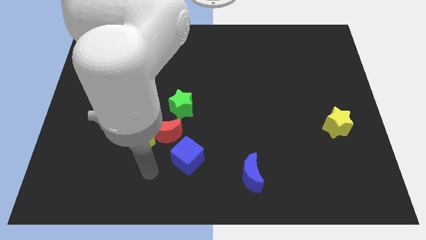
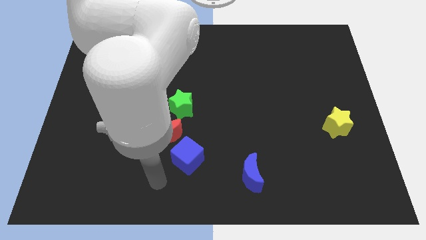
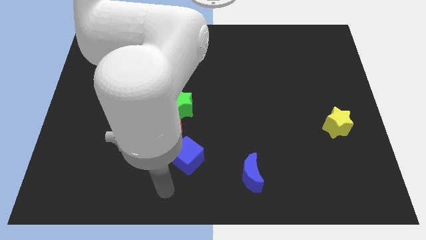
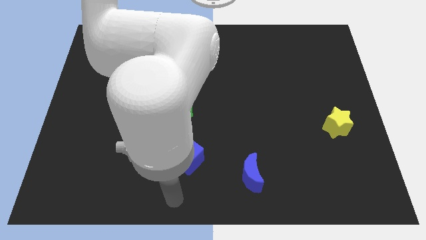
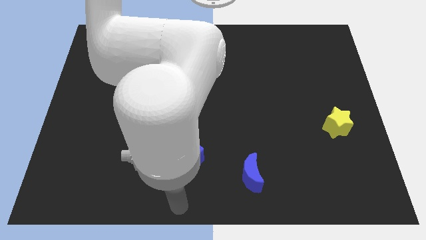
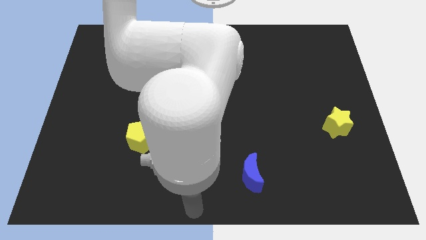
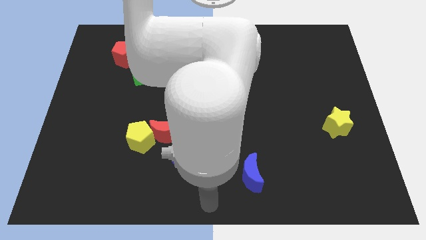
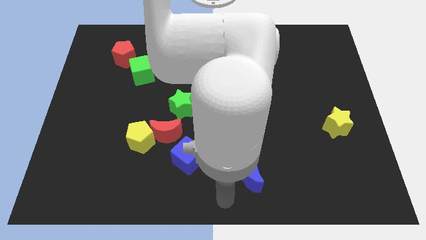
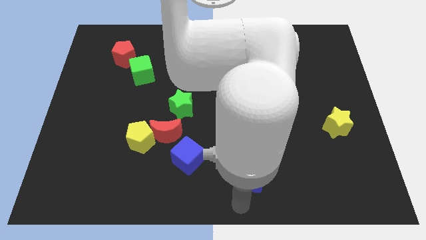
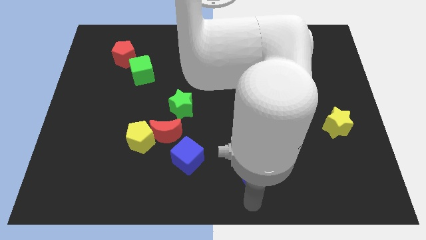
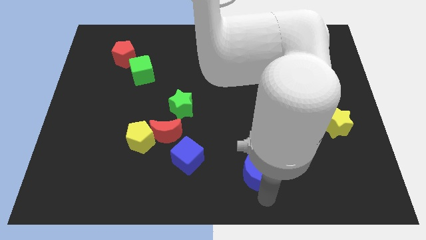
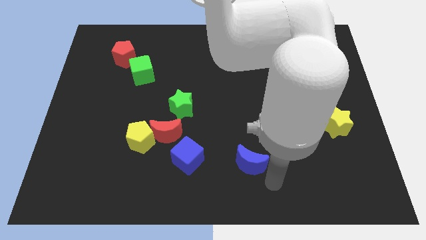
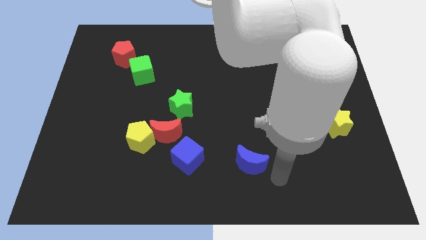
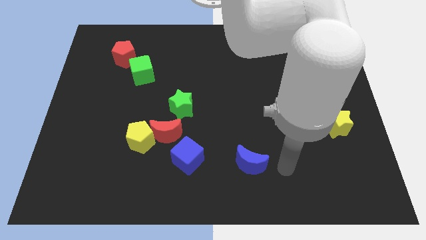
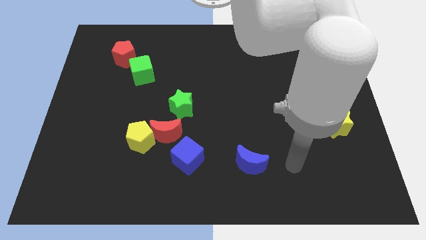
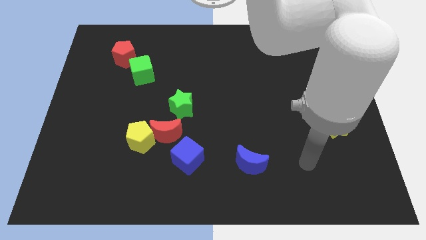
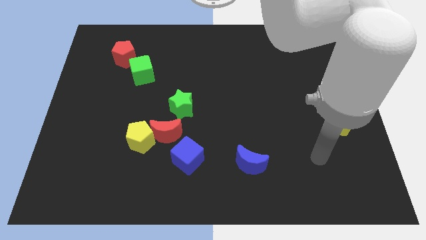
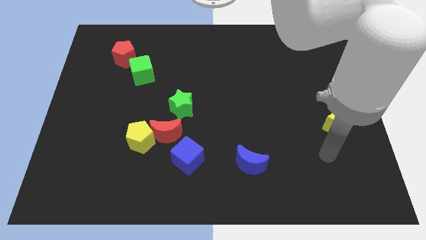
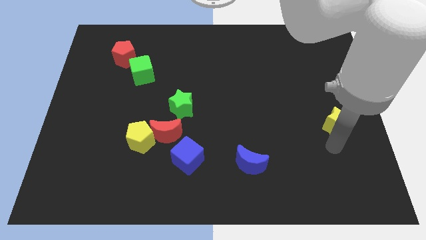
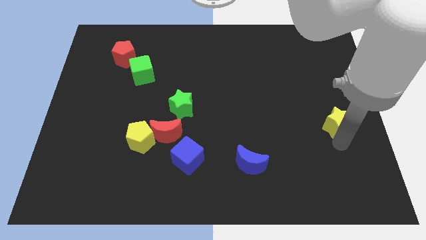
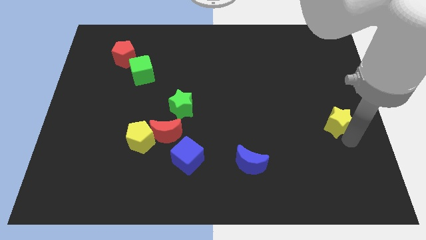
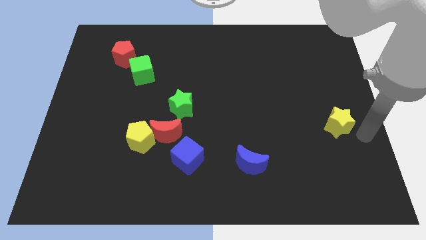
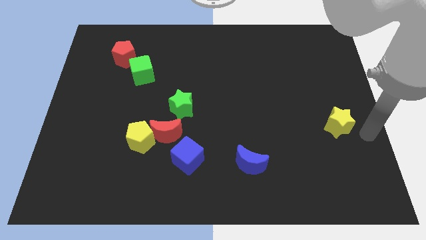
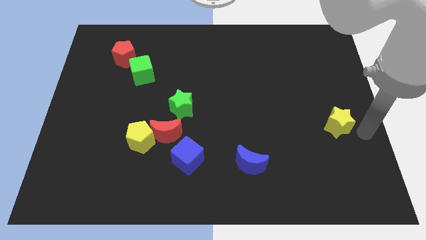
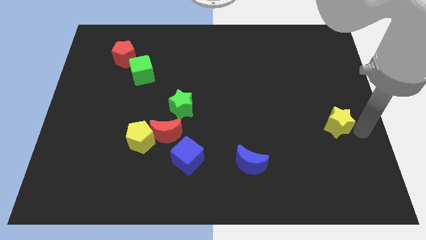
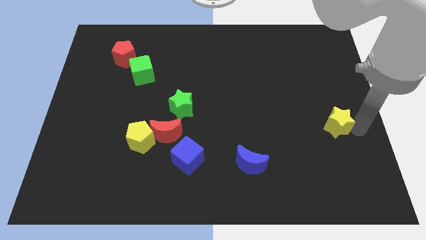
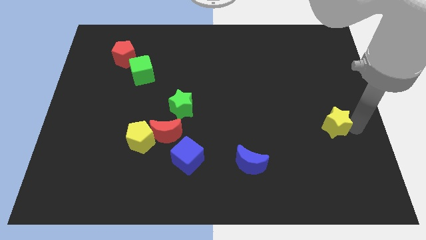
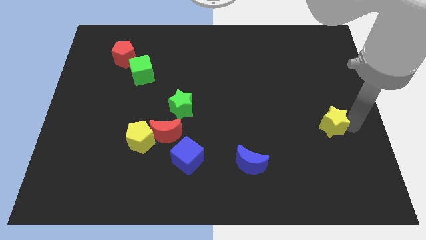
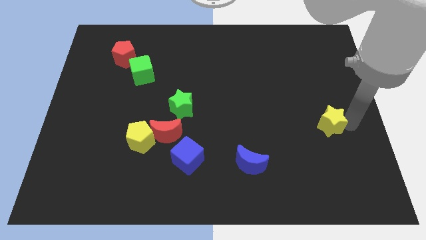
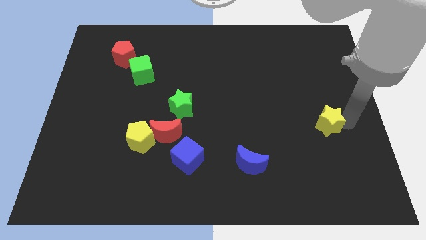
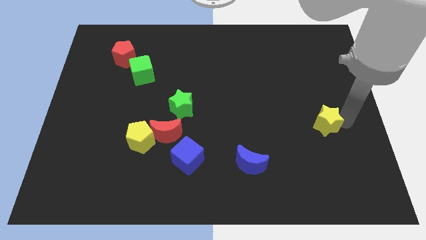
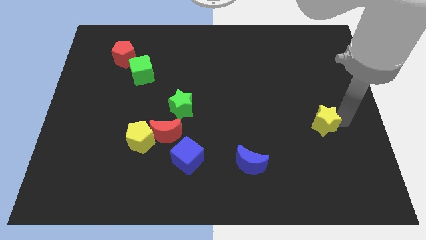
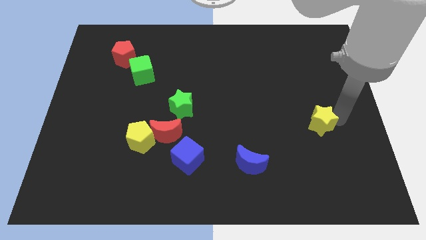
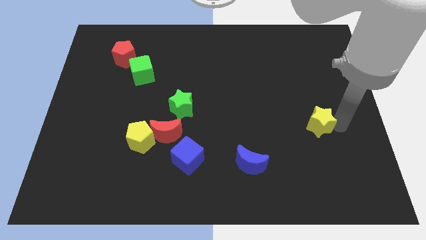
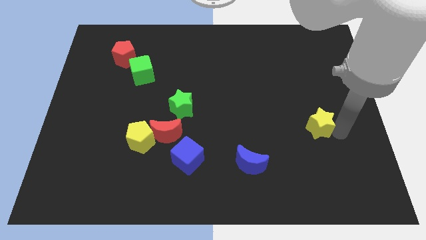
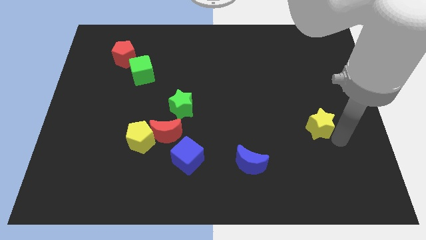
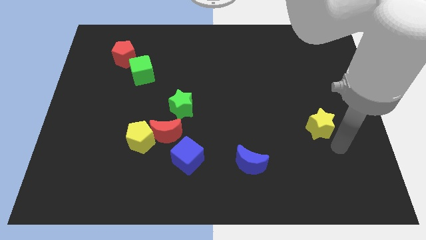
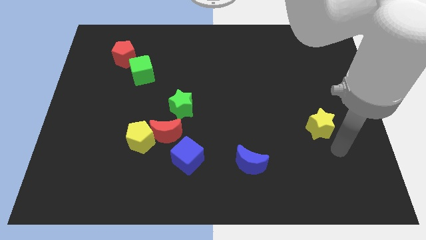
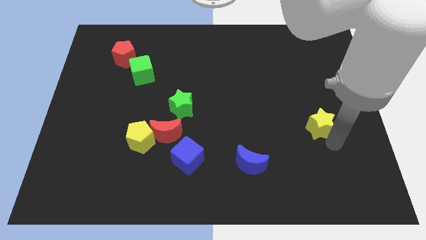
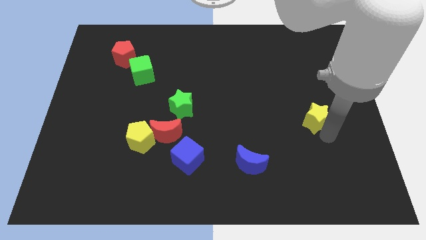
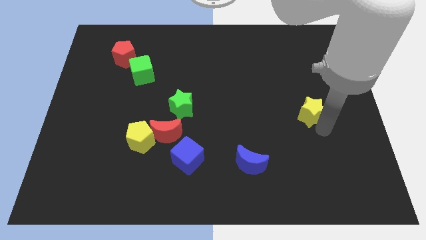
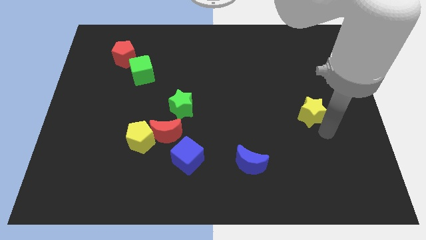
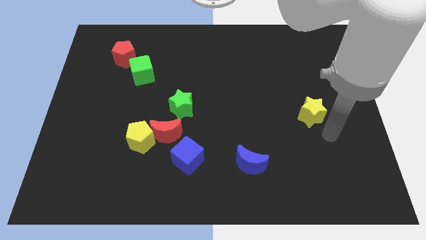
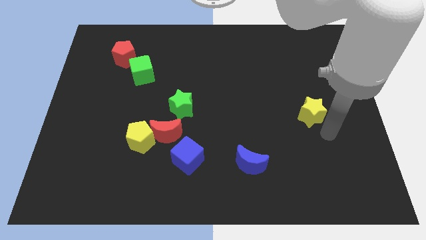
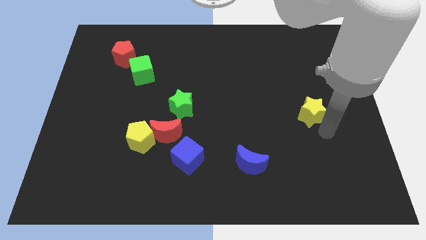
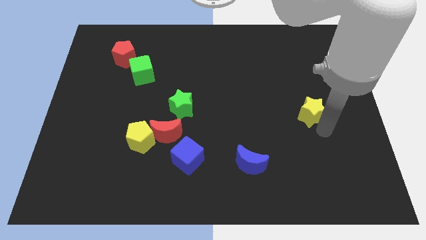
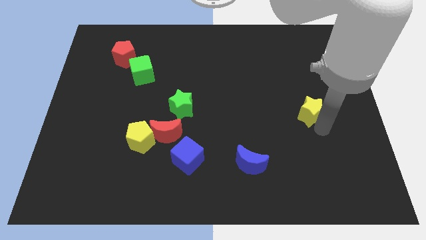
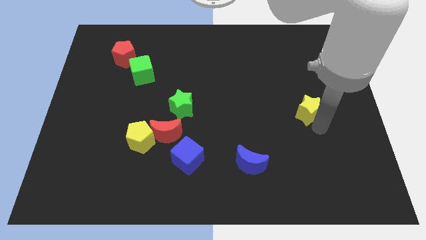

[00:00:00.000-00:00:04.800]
move the yellow star somewhat diagonally upwards and to the left

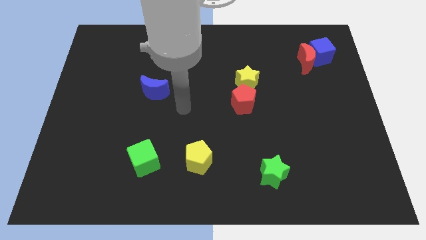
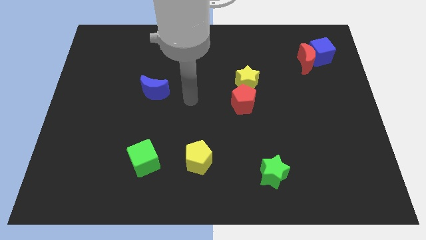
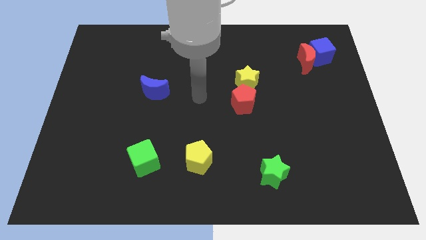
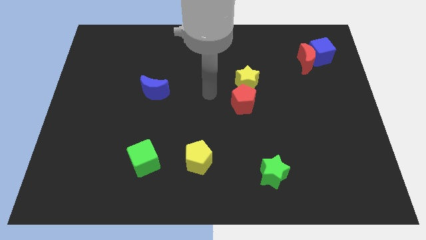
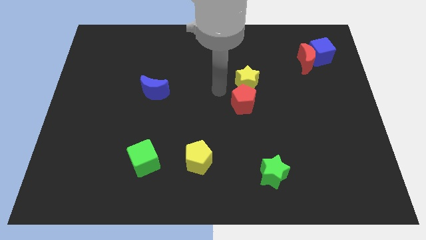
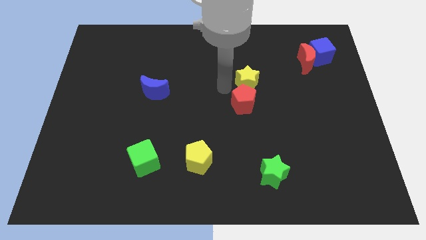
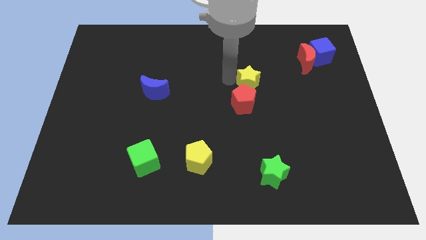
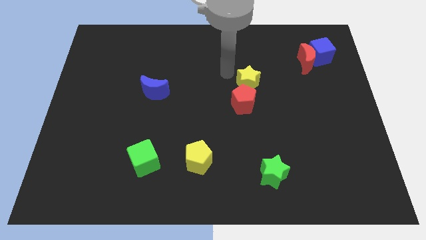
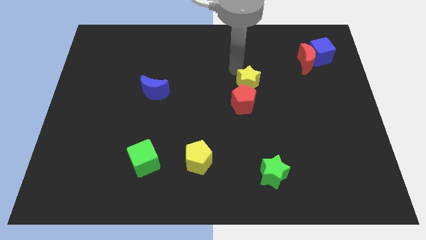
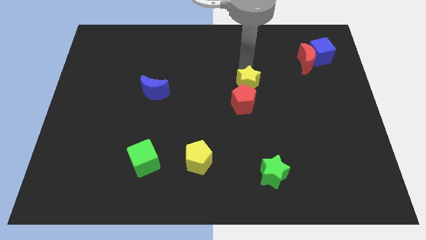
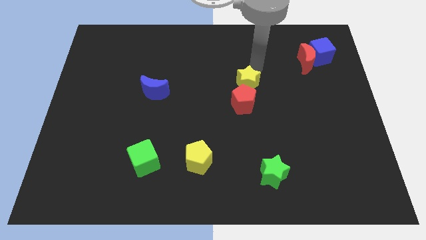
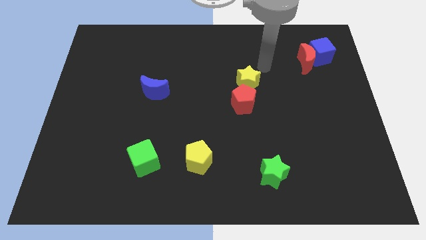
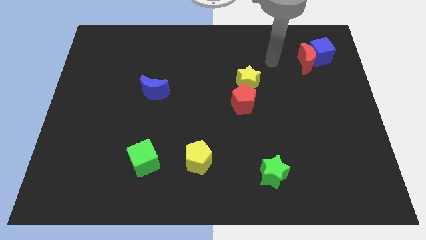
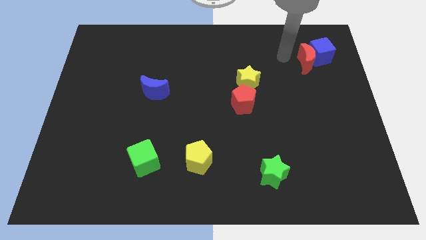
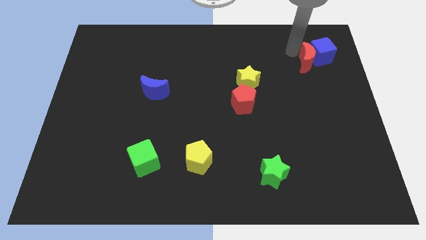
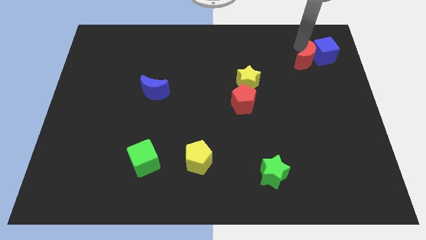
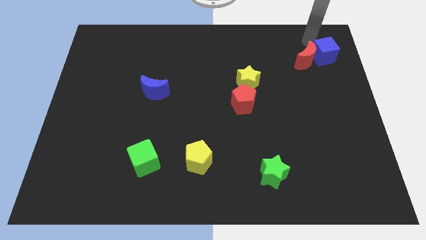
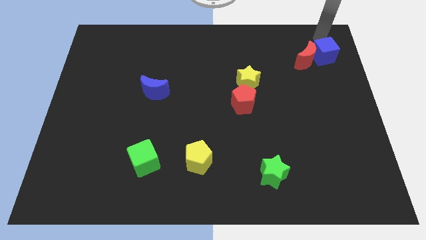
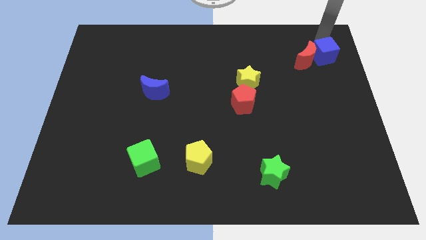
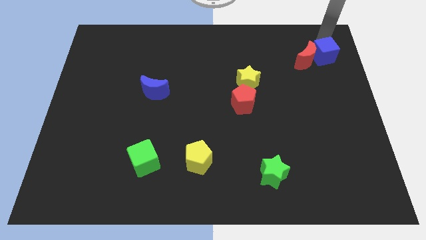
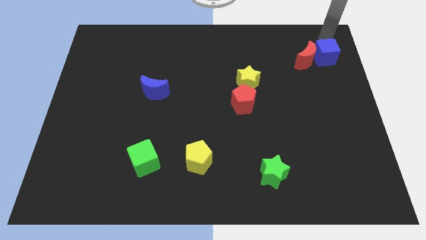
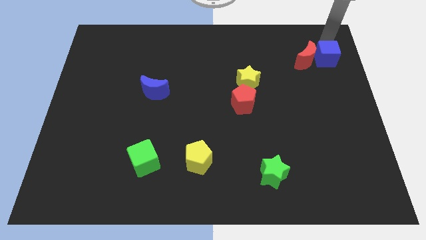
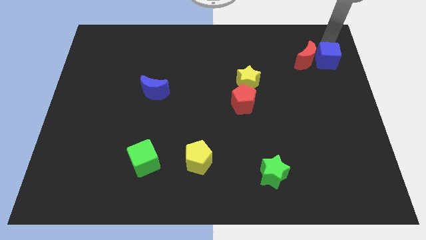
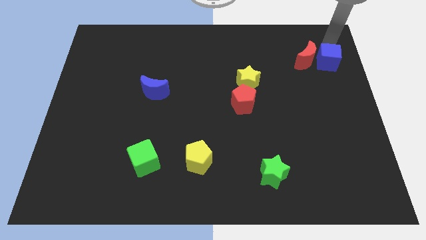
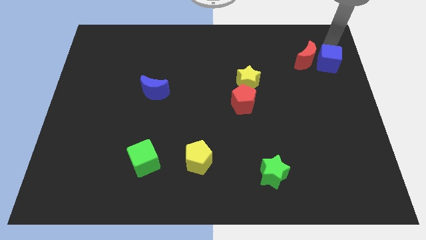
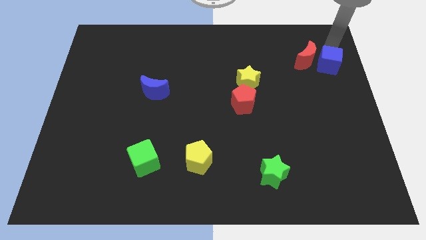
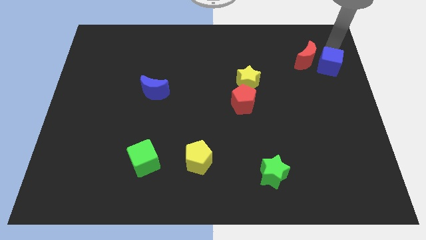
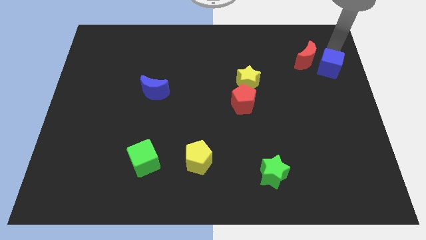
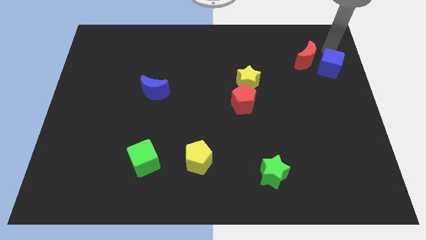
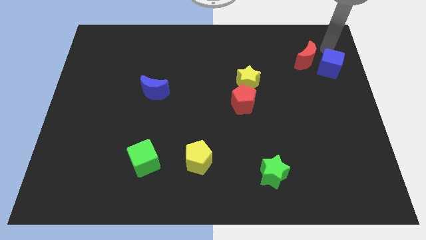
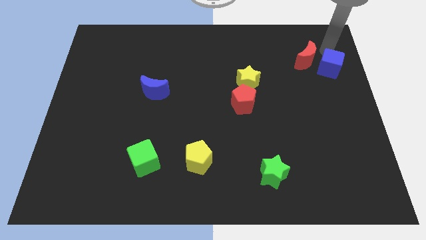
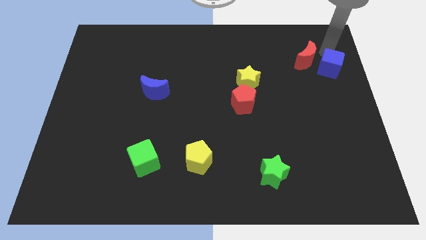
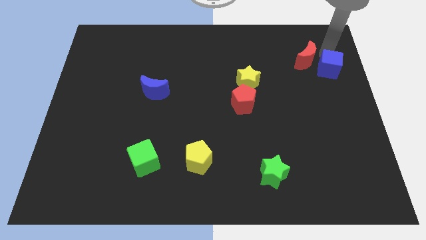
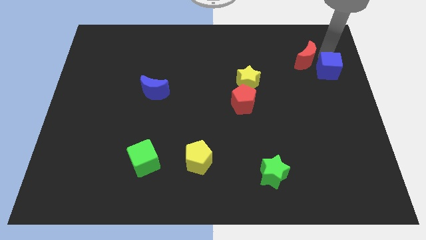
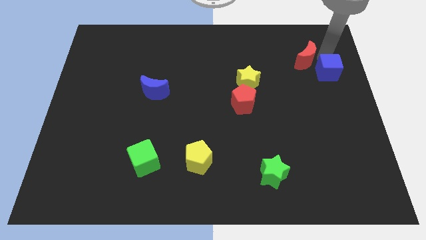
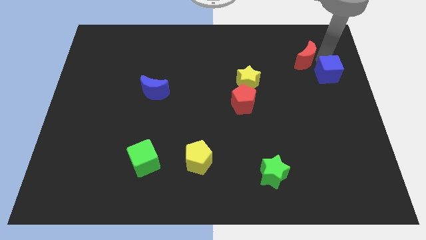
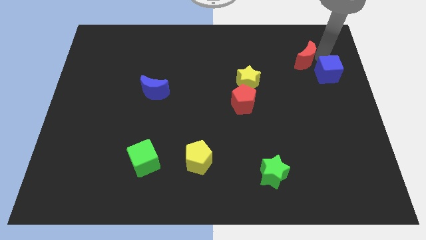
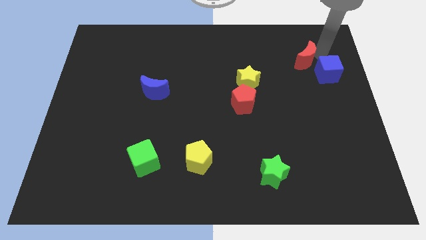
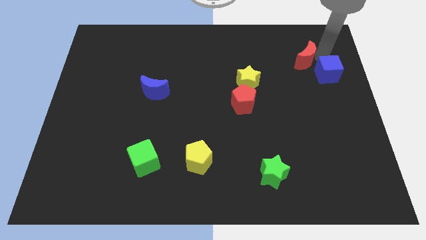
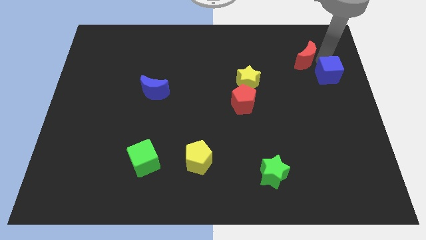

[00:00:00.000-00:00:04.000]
move the blue cube down a little
